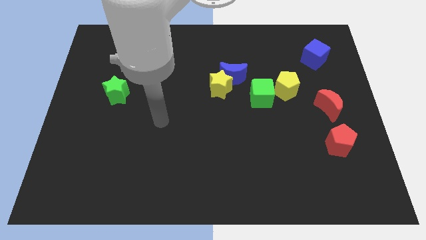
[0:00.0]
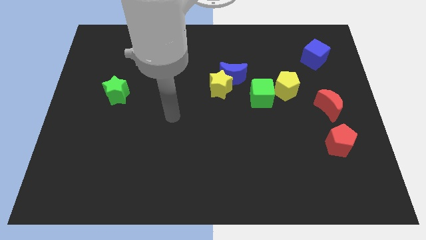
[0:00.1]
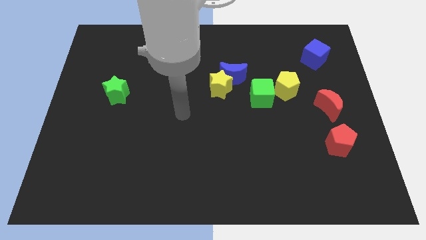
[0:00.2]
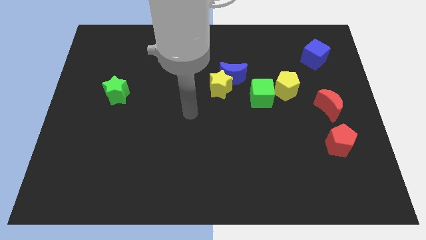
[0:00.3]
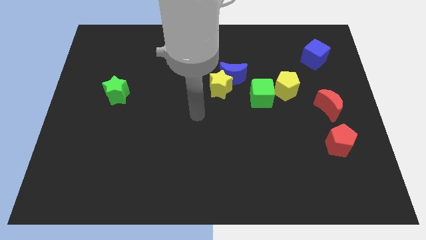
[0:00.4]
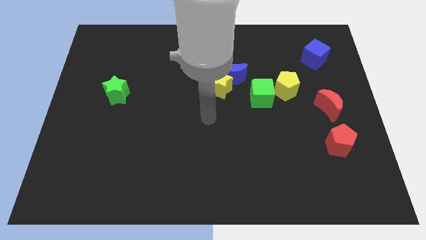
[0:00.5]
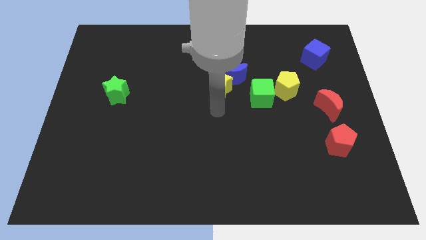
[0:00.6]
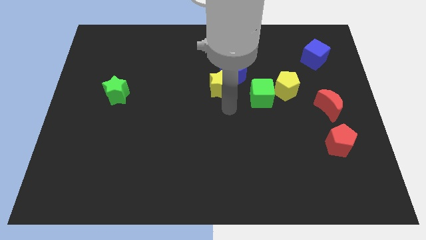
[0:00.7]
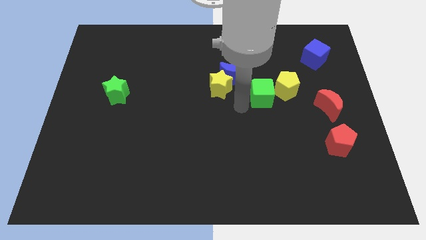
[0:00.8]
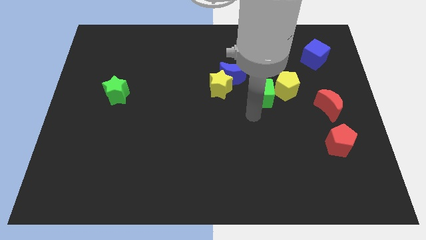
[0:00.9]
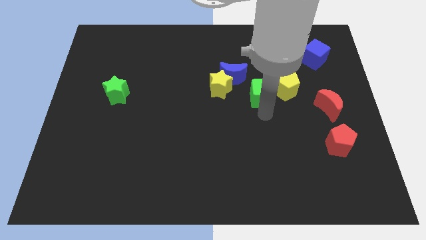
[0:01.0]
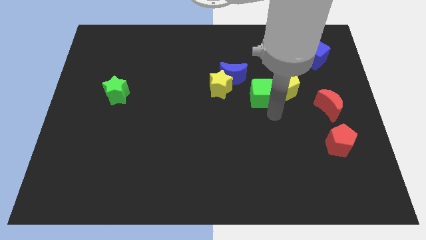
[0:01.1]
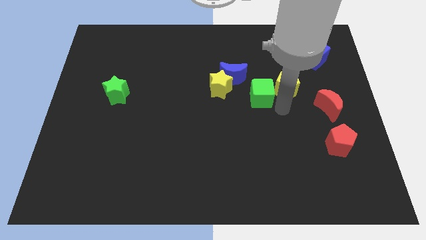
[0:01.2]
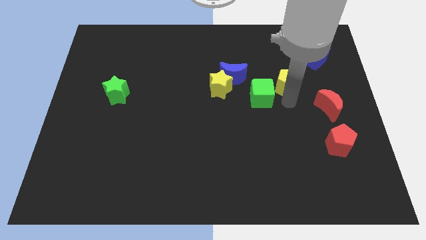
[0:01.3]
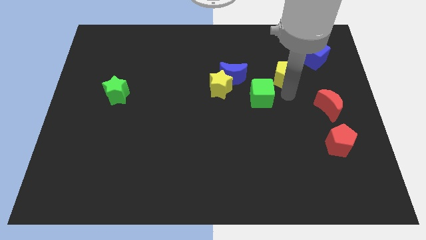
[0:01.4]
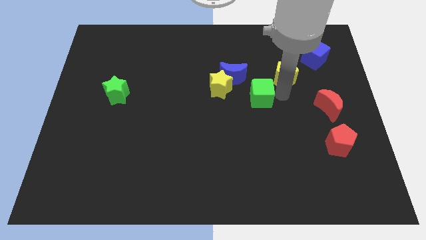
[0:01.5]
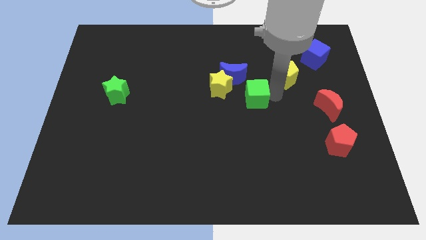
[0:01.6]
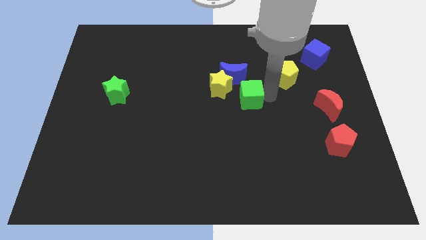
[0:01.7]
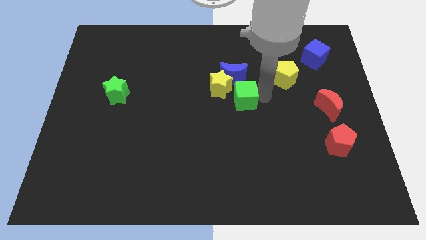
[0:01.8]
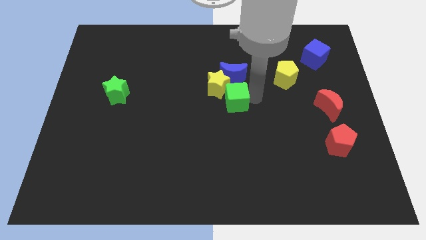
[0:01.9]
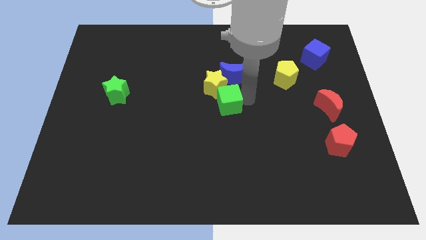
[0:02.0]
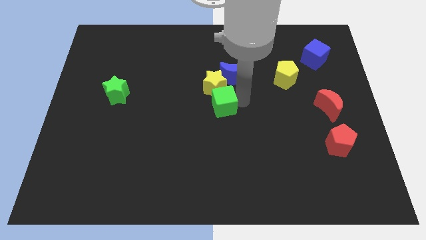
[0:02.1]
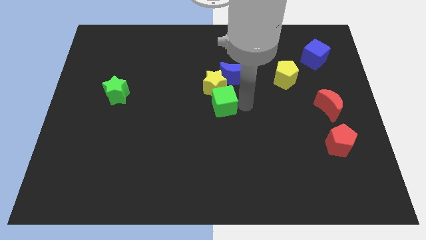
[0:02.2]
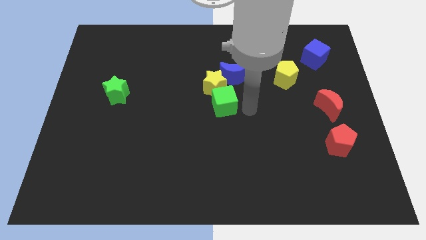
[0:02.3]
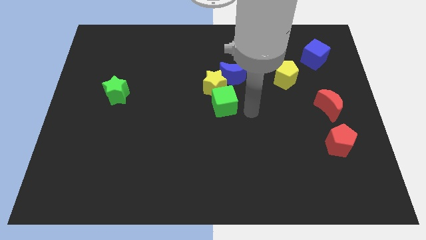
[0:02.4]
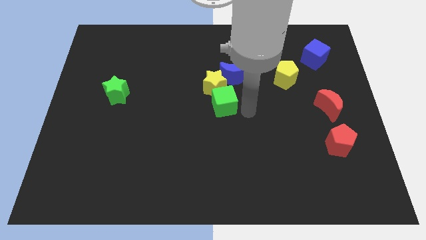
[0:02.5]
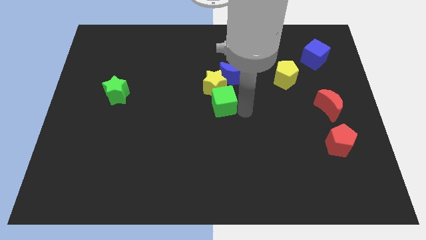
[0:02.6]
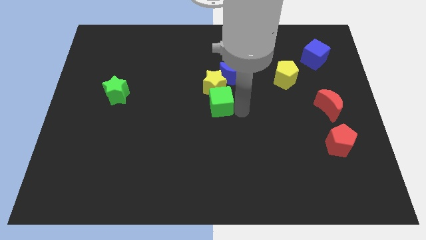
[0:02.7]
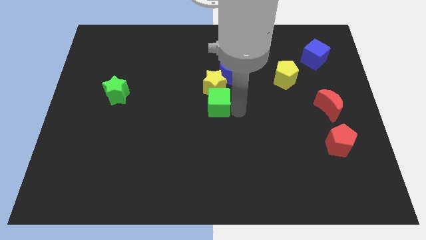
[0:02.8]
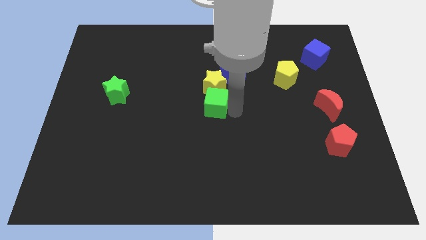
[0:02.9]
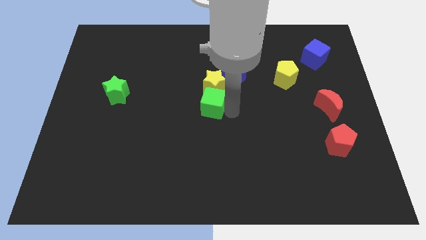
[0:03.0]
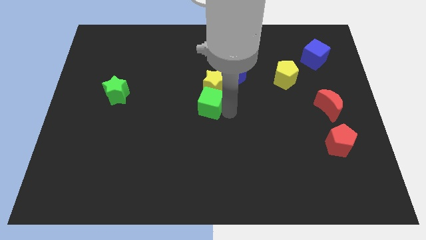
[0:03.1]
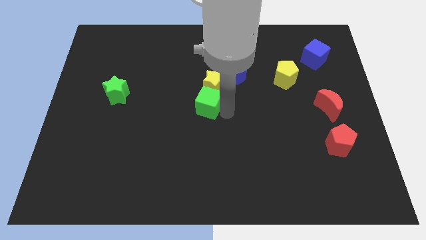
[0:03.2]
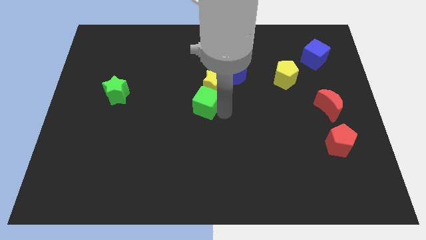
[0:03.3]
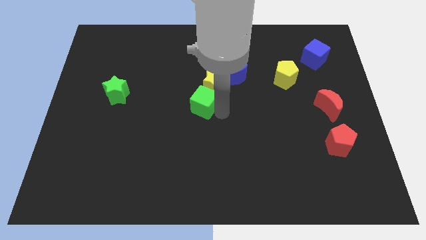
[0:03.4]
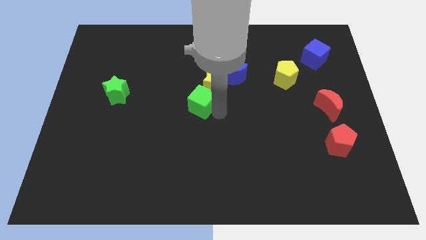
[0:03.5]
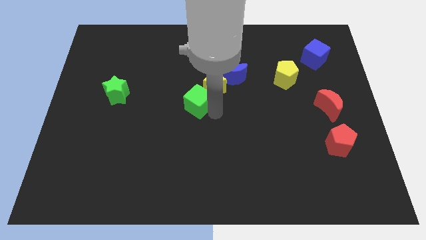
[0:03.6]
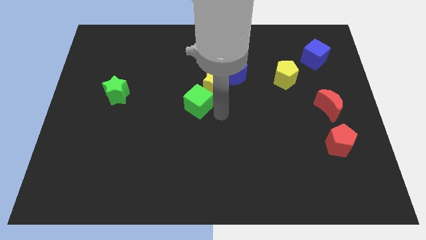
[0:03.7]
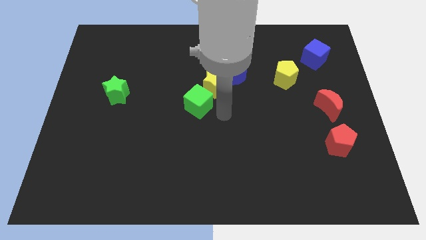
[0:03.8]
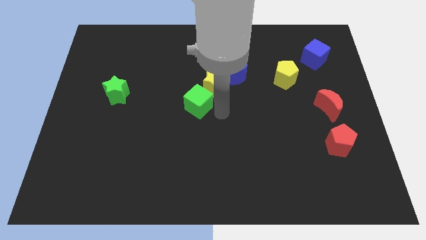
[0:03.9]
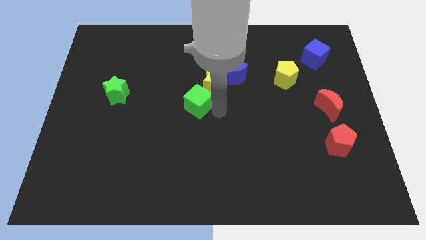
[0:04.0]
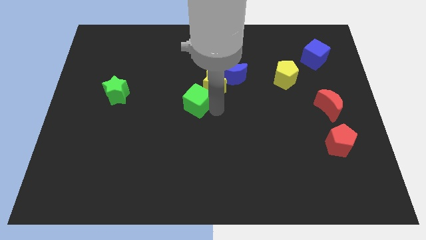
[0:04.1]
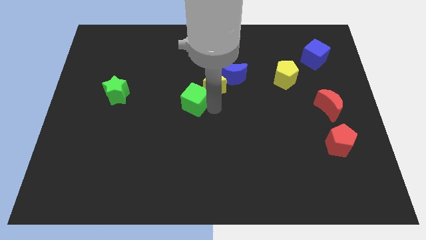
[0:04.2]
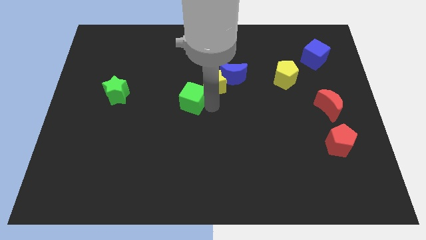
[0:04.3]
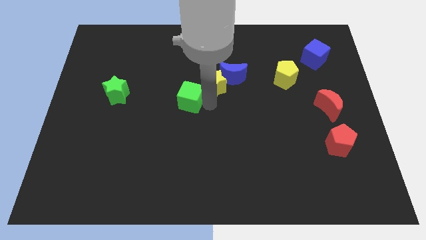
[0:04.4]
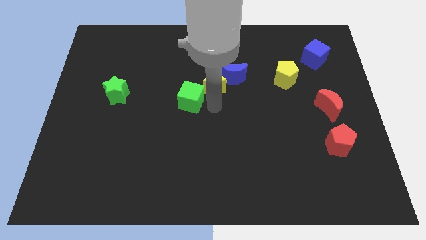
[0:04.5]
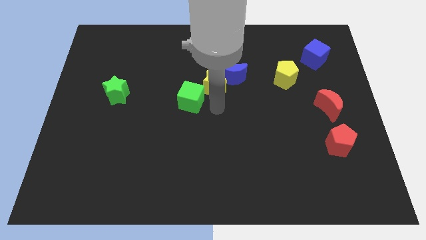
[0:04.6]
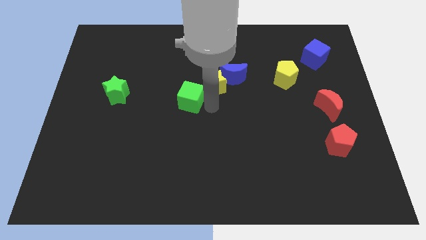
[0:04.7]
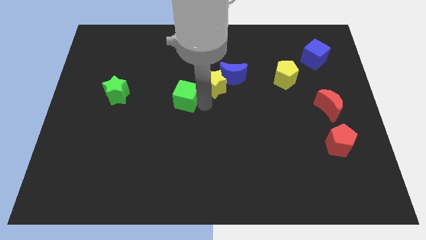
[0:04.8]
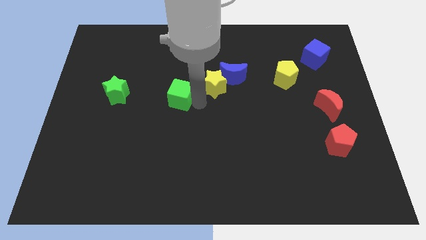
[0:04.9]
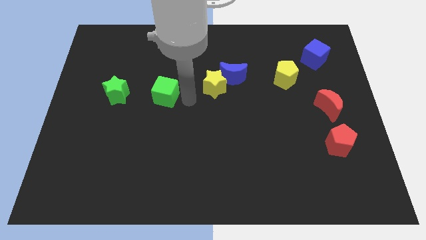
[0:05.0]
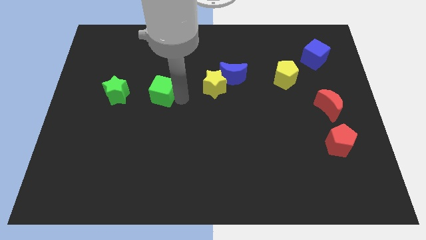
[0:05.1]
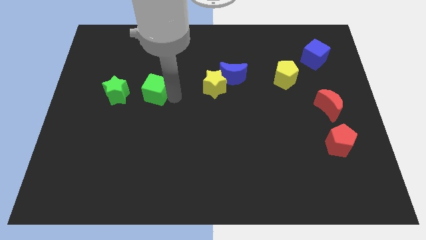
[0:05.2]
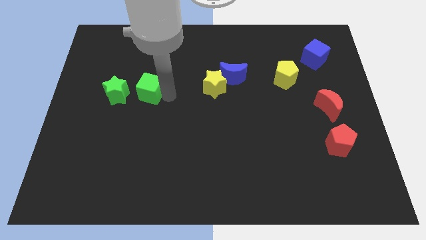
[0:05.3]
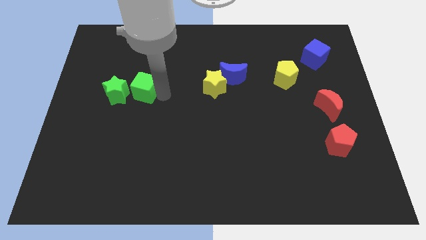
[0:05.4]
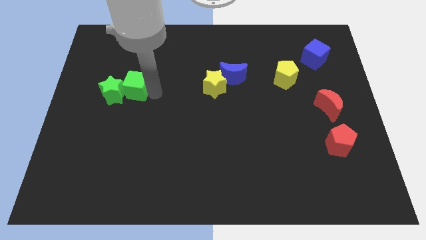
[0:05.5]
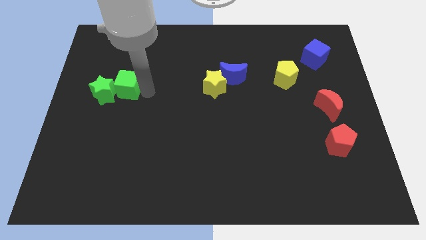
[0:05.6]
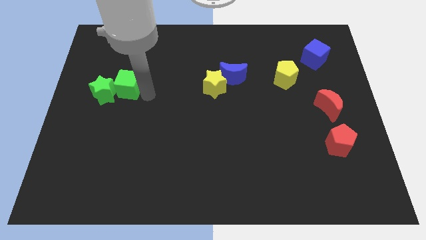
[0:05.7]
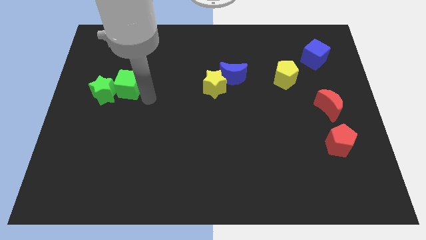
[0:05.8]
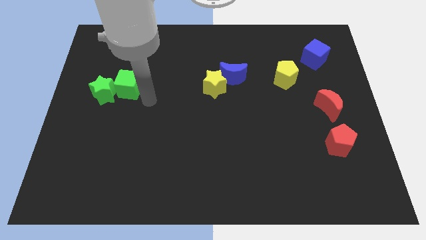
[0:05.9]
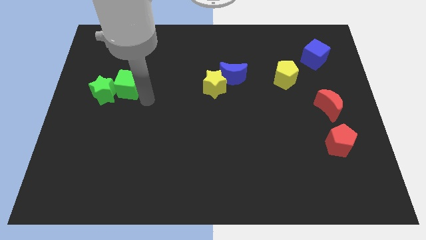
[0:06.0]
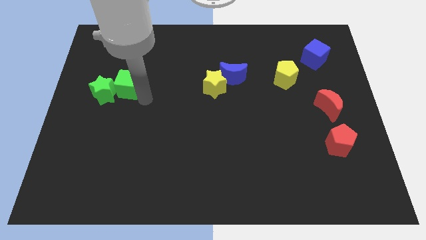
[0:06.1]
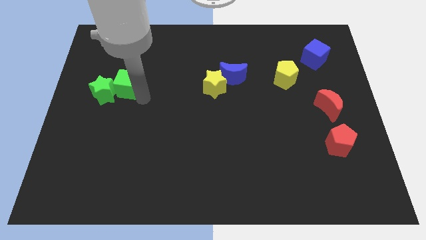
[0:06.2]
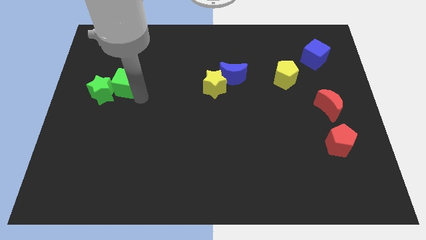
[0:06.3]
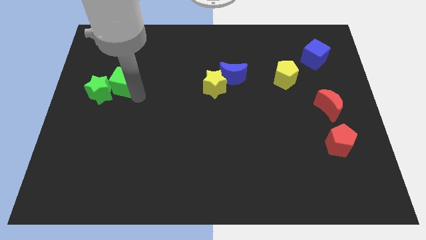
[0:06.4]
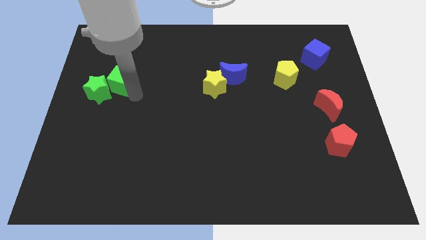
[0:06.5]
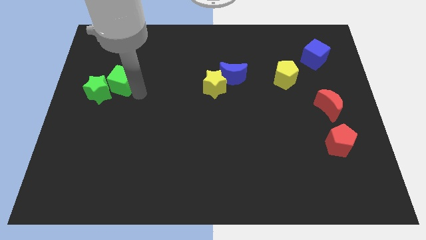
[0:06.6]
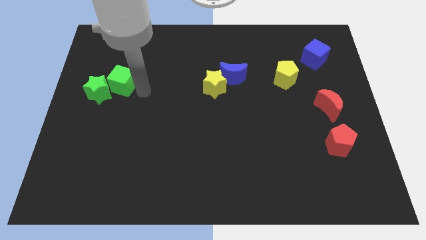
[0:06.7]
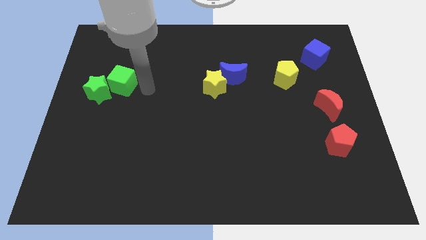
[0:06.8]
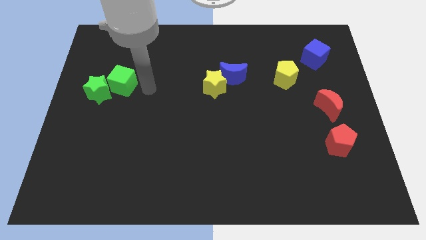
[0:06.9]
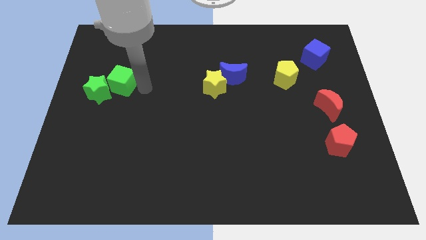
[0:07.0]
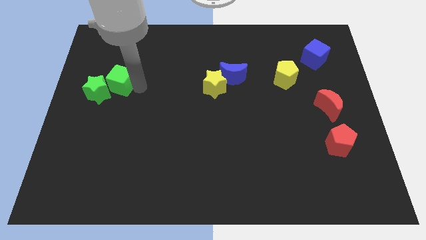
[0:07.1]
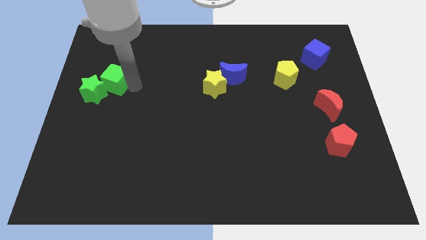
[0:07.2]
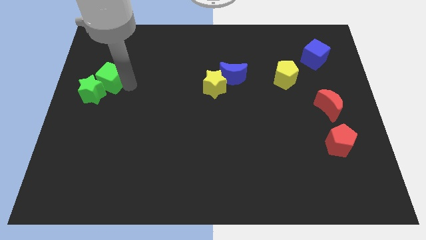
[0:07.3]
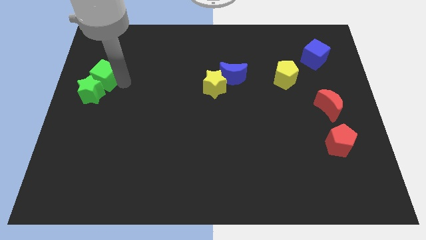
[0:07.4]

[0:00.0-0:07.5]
slide the green cube to the center left
